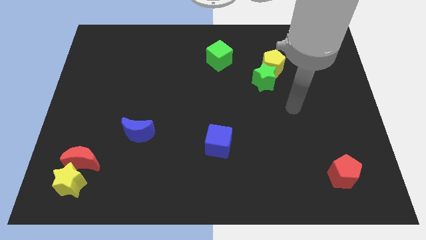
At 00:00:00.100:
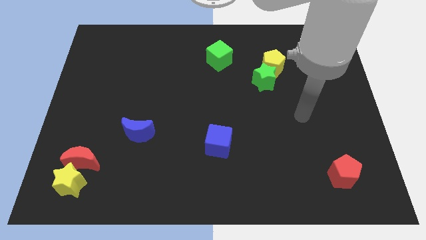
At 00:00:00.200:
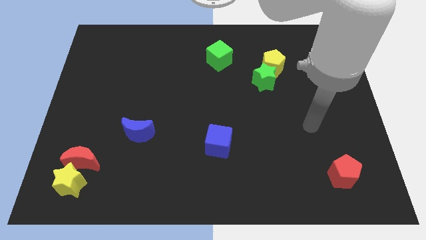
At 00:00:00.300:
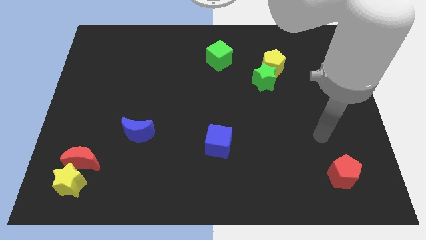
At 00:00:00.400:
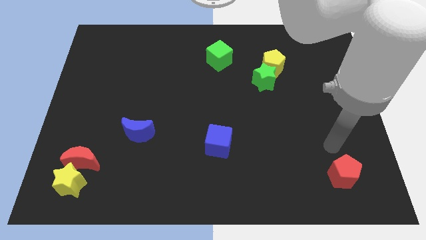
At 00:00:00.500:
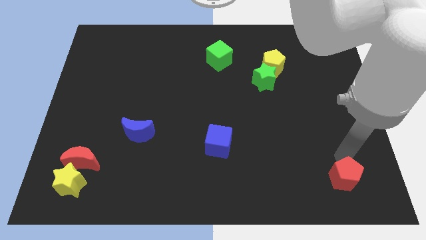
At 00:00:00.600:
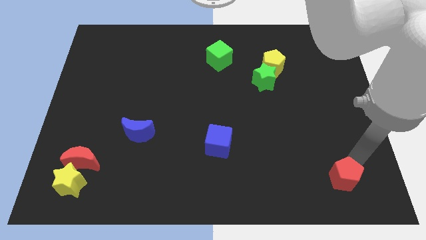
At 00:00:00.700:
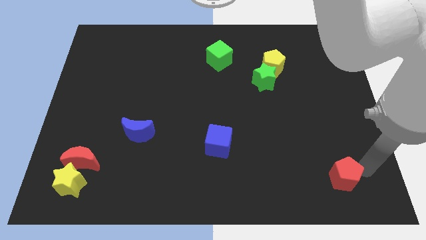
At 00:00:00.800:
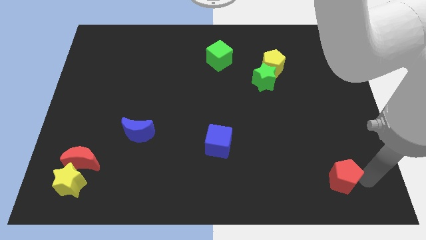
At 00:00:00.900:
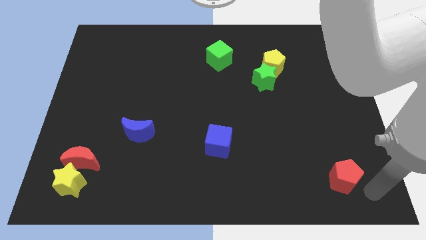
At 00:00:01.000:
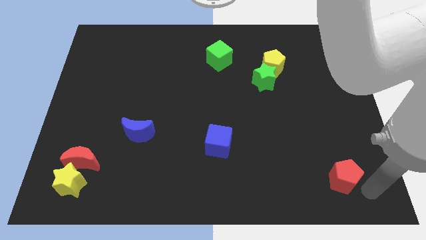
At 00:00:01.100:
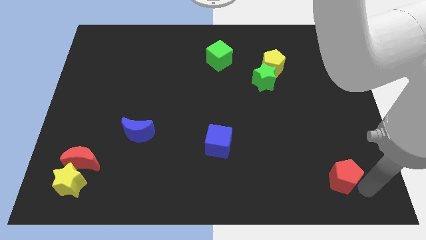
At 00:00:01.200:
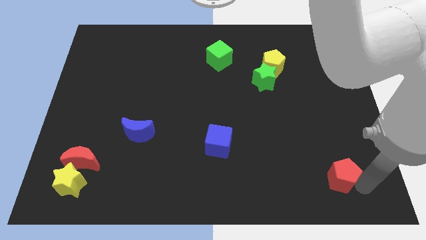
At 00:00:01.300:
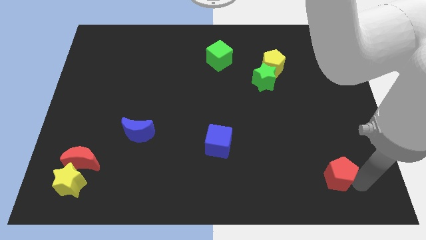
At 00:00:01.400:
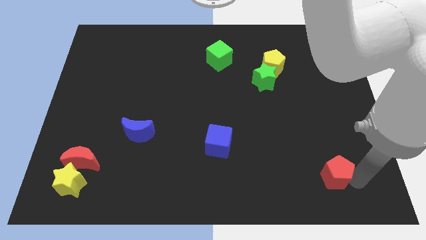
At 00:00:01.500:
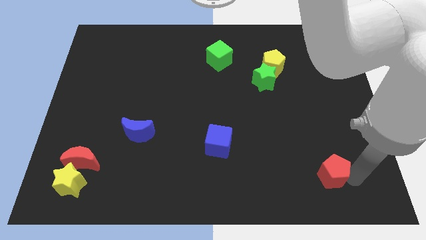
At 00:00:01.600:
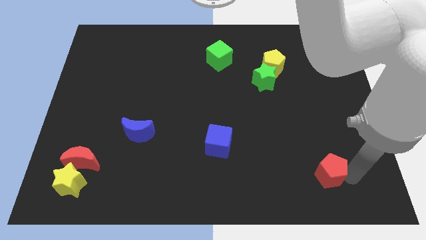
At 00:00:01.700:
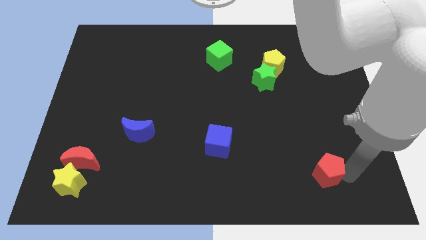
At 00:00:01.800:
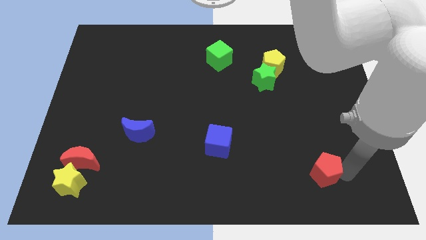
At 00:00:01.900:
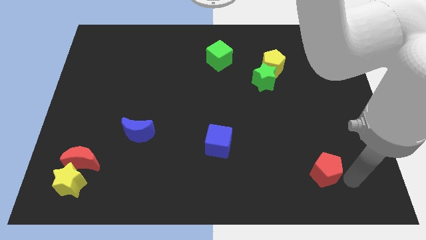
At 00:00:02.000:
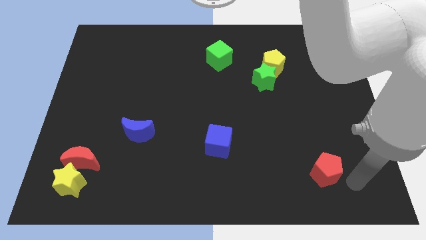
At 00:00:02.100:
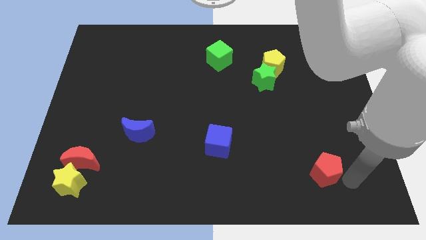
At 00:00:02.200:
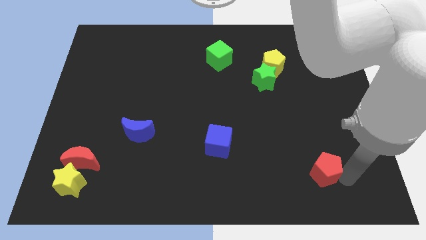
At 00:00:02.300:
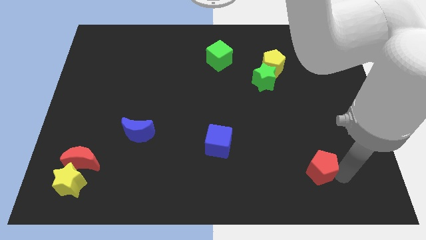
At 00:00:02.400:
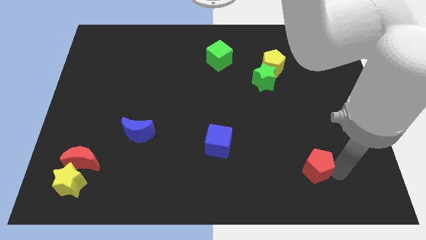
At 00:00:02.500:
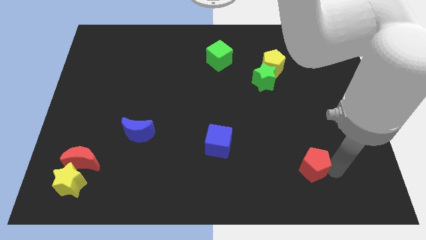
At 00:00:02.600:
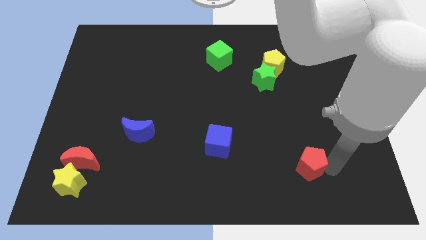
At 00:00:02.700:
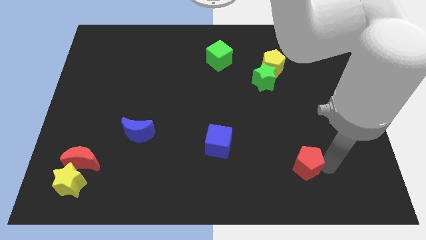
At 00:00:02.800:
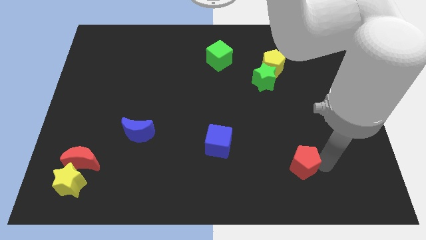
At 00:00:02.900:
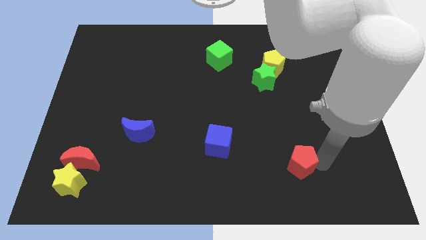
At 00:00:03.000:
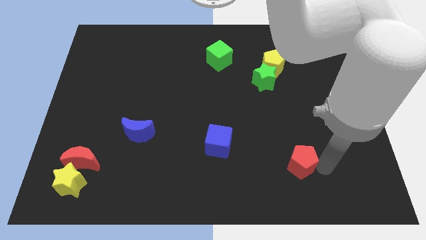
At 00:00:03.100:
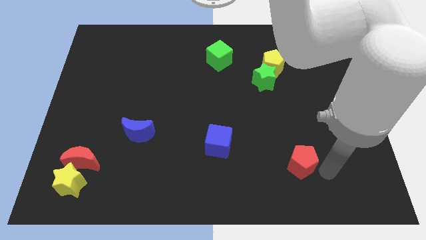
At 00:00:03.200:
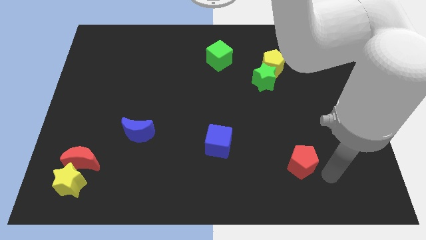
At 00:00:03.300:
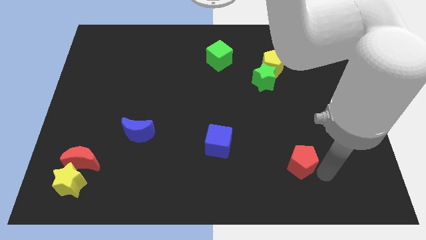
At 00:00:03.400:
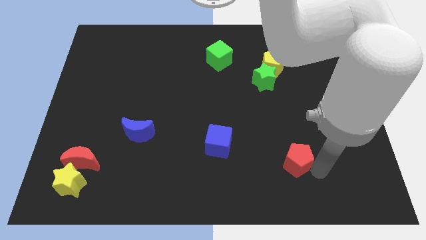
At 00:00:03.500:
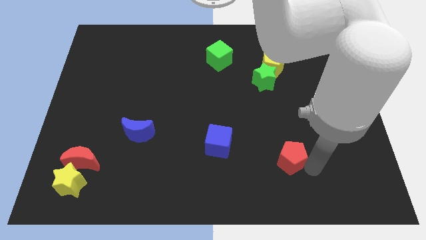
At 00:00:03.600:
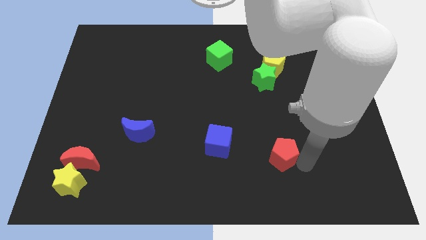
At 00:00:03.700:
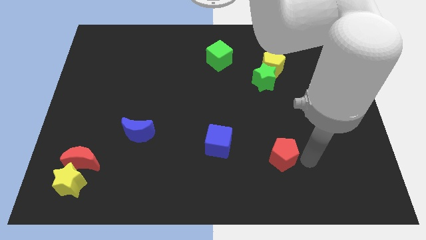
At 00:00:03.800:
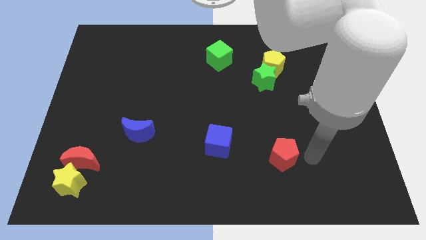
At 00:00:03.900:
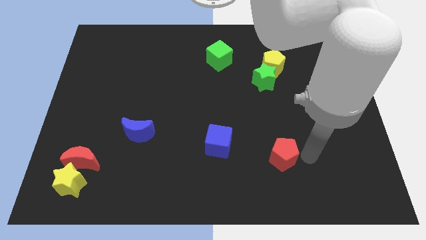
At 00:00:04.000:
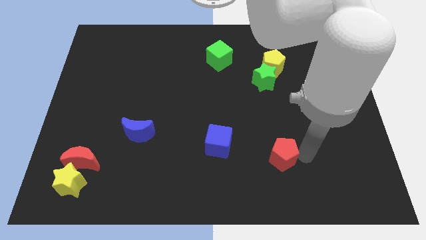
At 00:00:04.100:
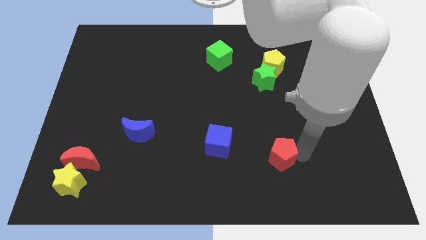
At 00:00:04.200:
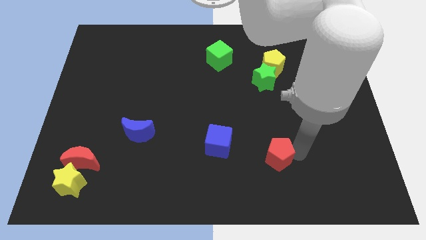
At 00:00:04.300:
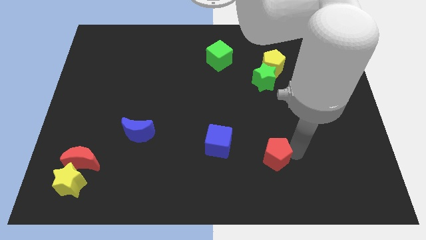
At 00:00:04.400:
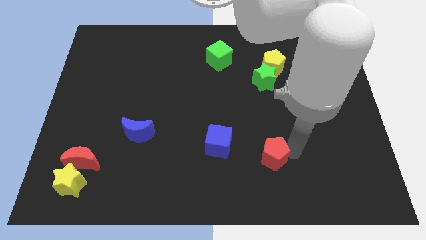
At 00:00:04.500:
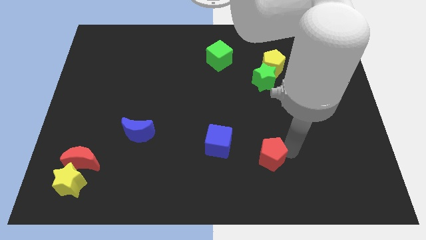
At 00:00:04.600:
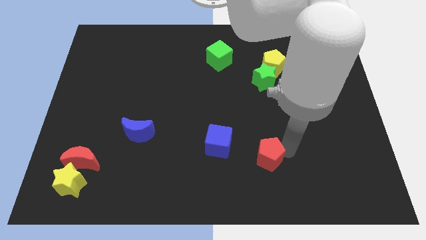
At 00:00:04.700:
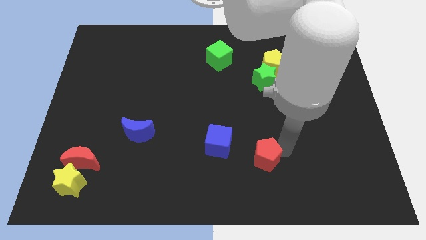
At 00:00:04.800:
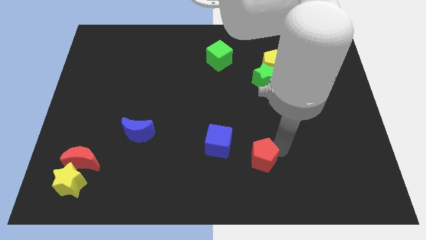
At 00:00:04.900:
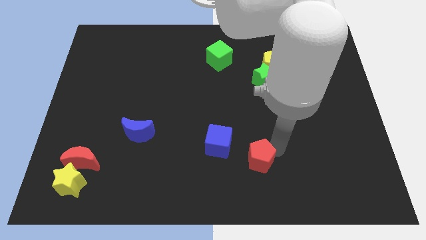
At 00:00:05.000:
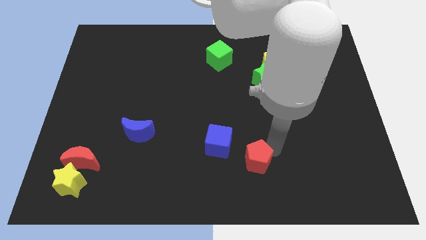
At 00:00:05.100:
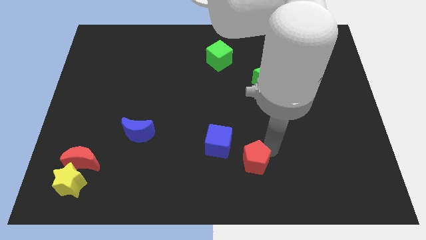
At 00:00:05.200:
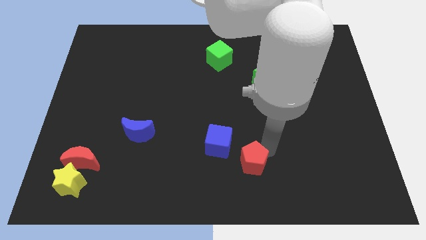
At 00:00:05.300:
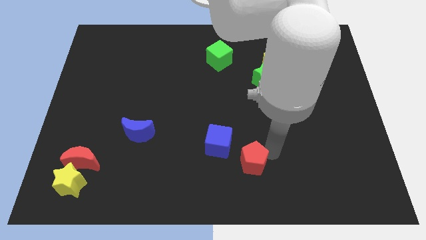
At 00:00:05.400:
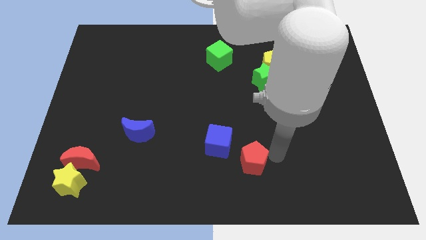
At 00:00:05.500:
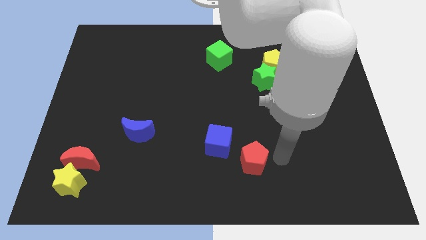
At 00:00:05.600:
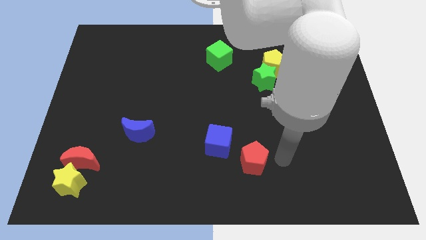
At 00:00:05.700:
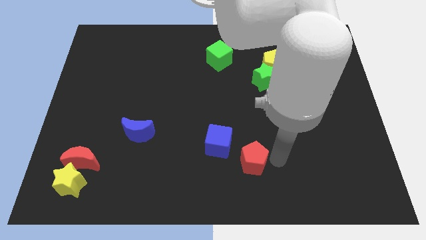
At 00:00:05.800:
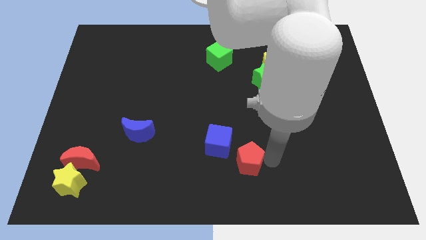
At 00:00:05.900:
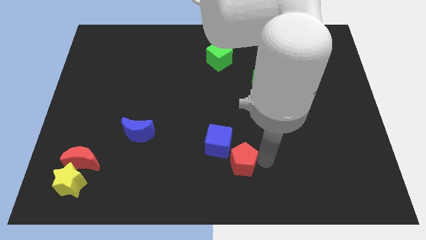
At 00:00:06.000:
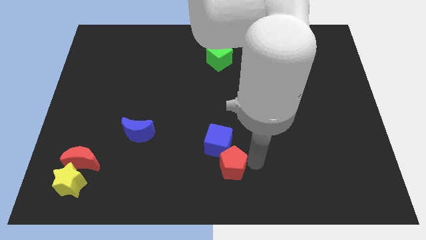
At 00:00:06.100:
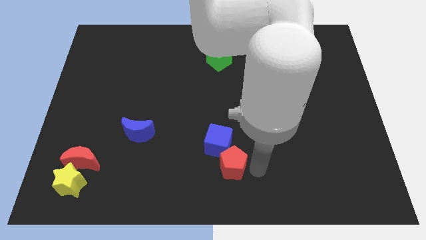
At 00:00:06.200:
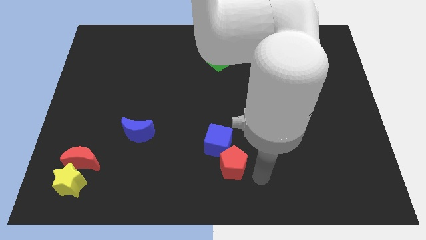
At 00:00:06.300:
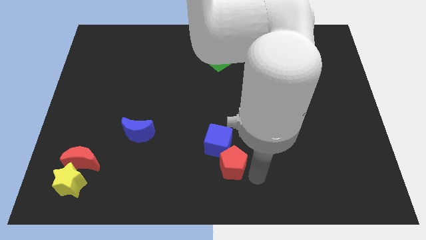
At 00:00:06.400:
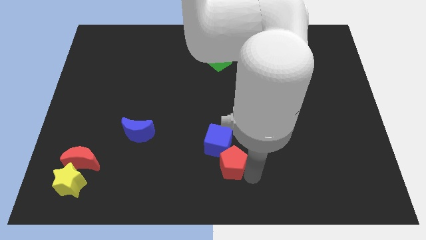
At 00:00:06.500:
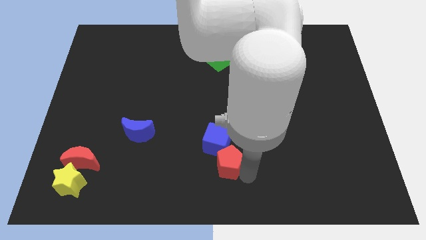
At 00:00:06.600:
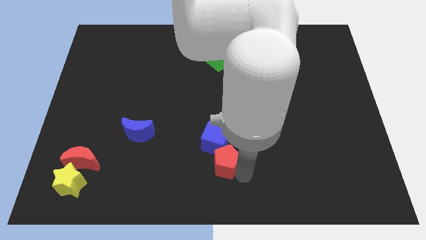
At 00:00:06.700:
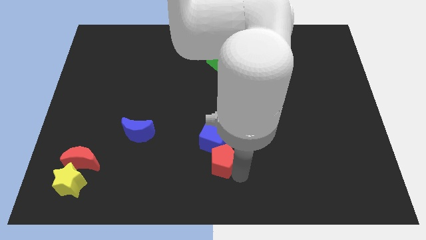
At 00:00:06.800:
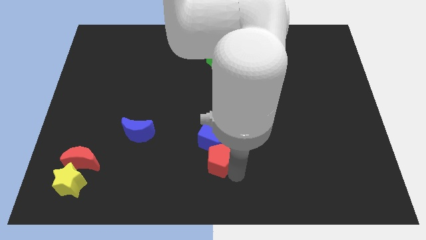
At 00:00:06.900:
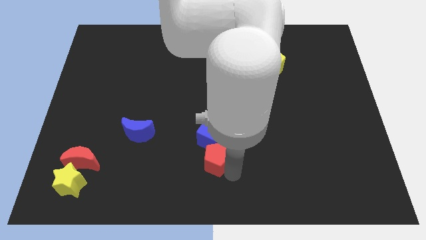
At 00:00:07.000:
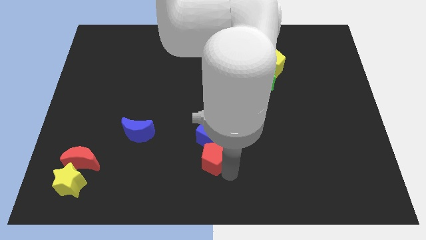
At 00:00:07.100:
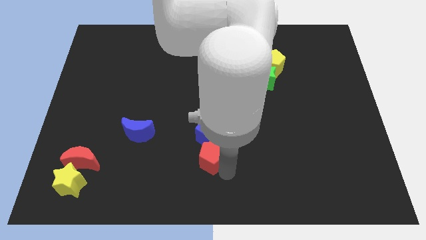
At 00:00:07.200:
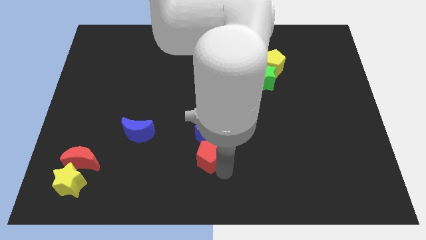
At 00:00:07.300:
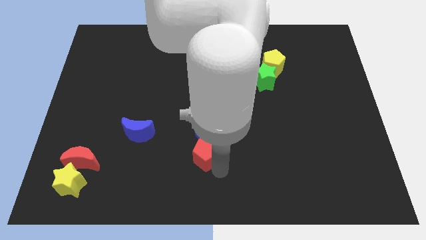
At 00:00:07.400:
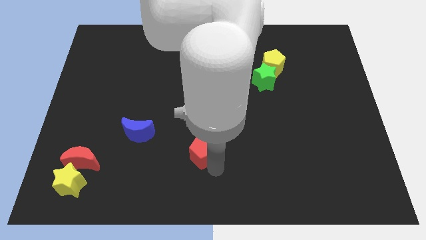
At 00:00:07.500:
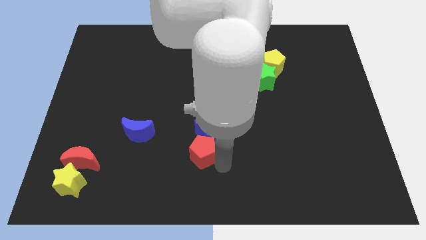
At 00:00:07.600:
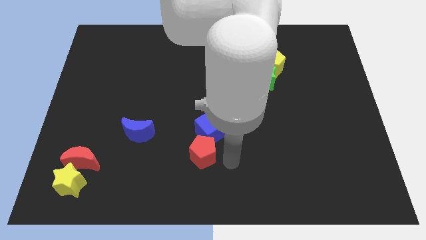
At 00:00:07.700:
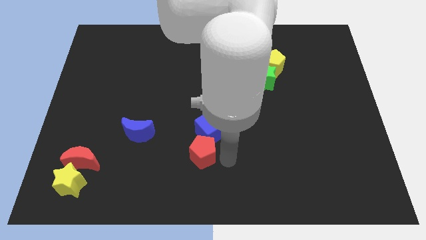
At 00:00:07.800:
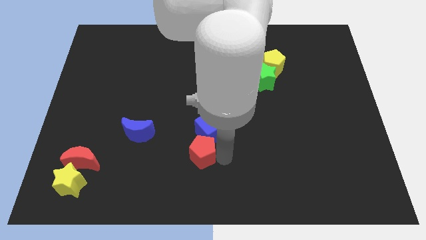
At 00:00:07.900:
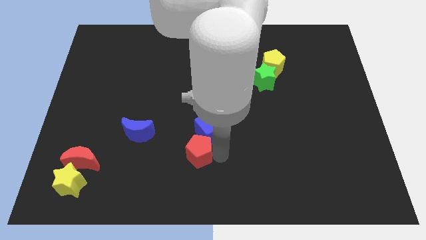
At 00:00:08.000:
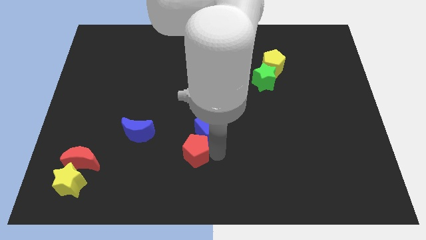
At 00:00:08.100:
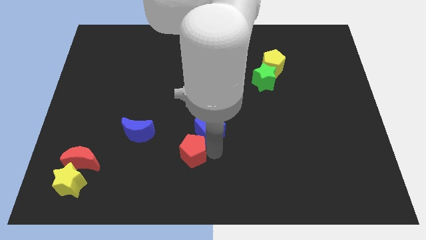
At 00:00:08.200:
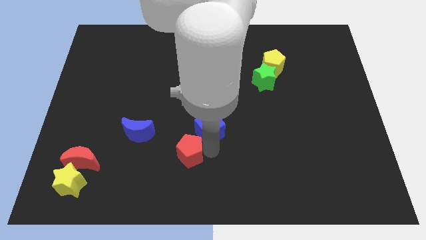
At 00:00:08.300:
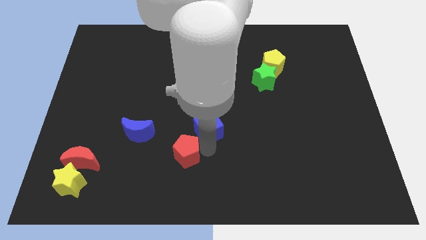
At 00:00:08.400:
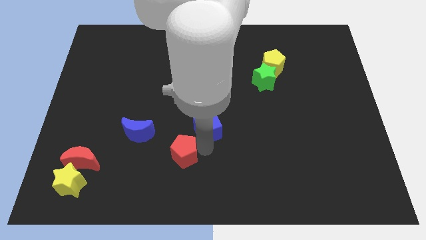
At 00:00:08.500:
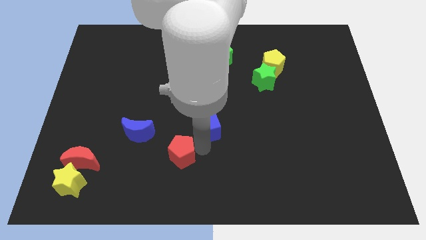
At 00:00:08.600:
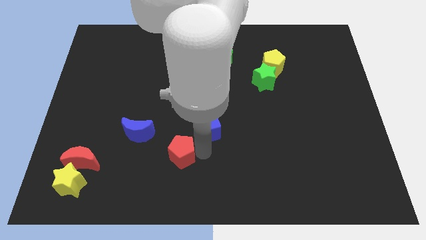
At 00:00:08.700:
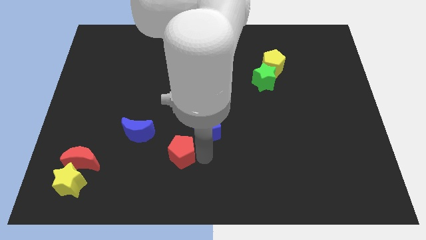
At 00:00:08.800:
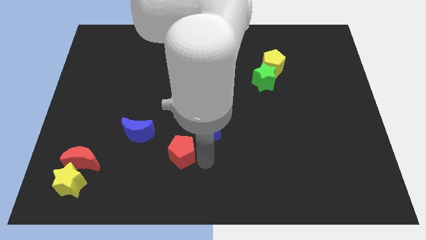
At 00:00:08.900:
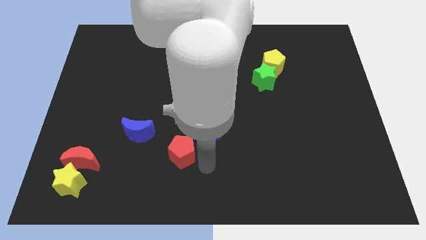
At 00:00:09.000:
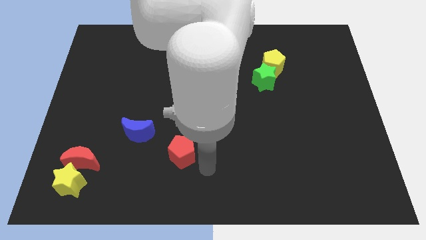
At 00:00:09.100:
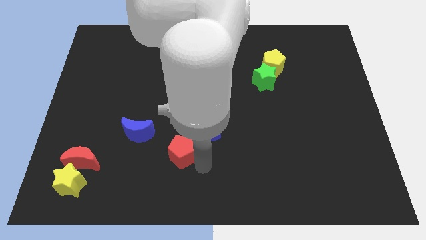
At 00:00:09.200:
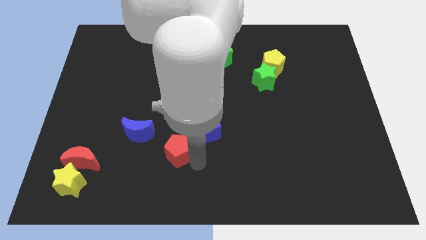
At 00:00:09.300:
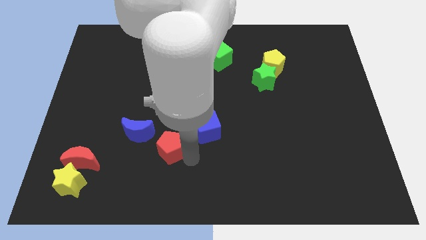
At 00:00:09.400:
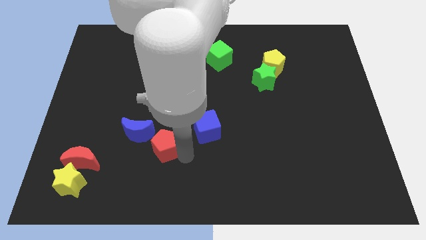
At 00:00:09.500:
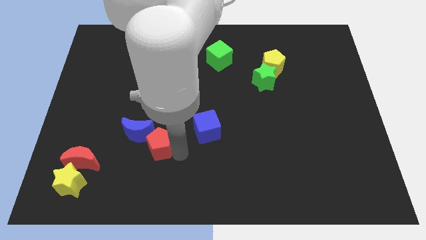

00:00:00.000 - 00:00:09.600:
push the red pentagon towards the blue moon
